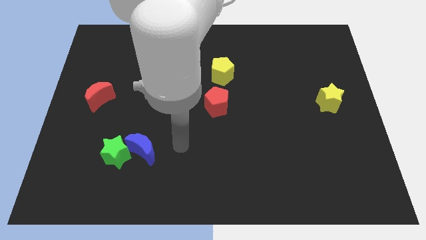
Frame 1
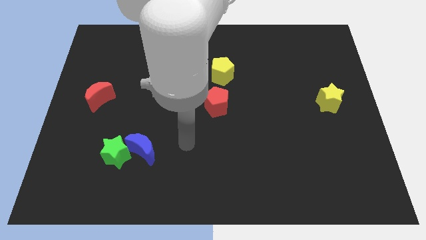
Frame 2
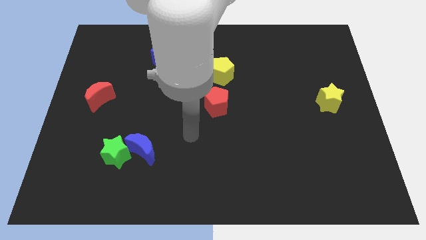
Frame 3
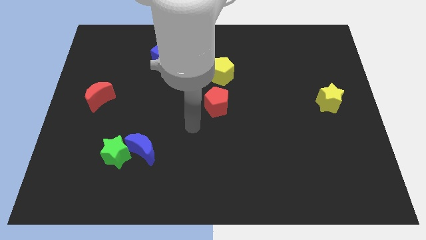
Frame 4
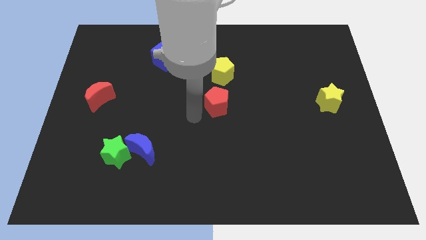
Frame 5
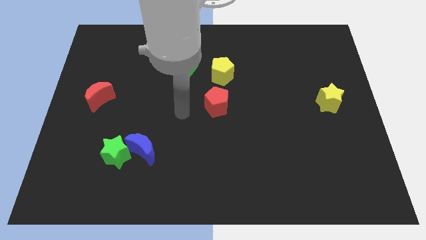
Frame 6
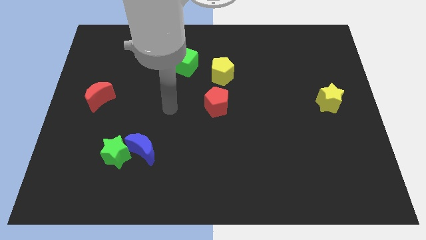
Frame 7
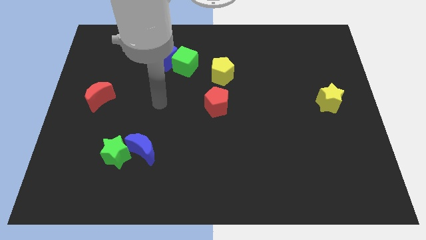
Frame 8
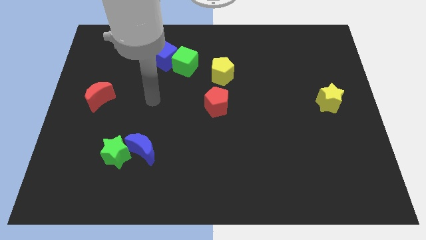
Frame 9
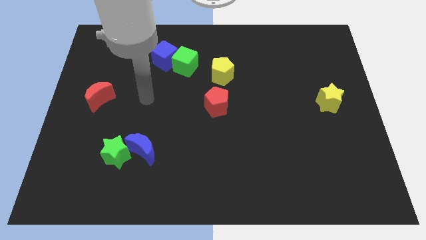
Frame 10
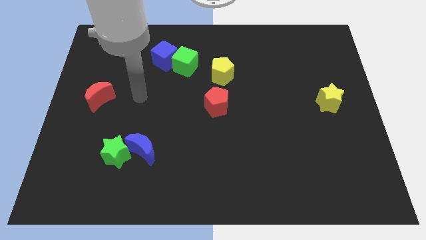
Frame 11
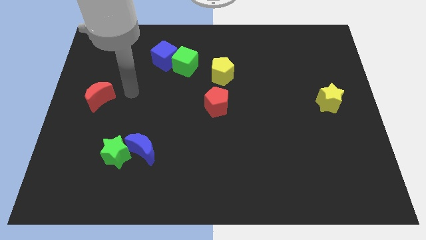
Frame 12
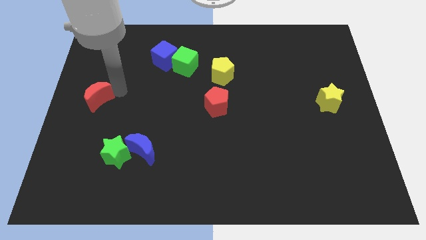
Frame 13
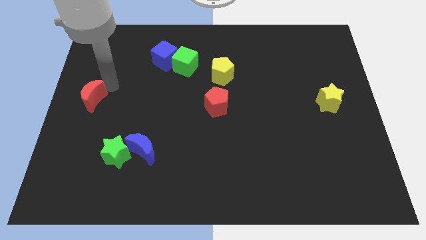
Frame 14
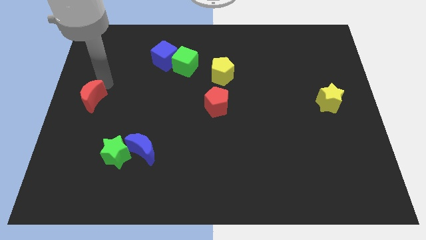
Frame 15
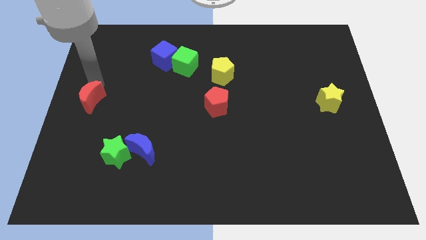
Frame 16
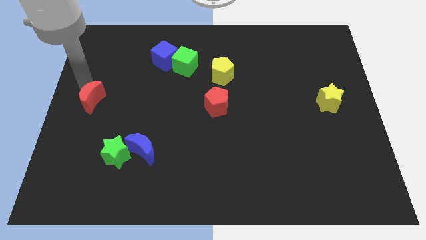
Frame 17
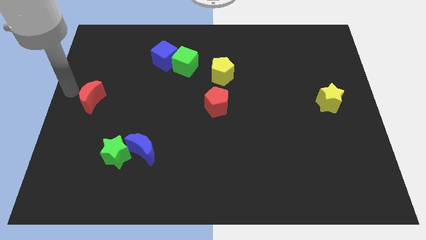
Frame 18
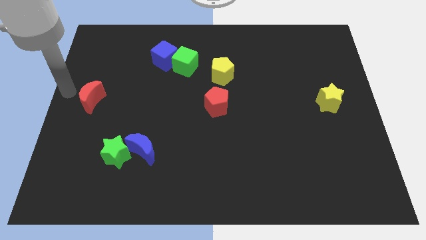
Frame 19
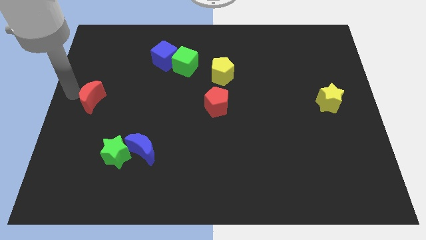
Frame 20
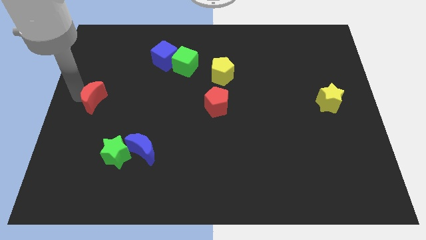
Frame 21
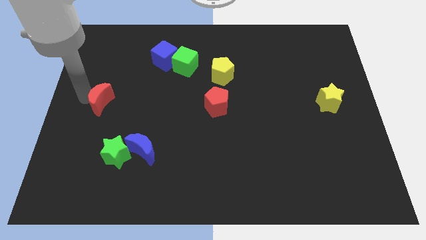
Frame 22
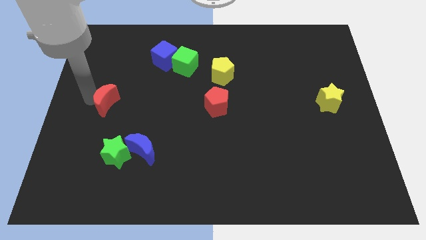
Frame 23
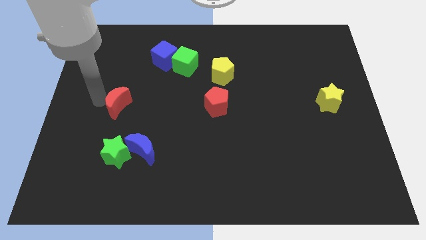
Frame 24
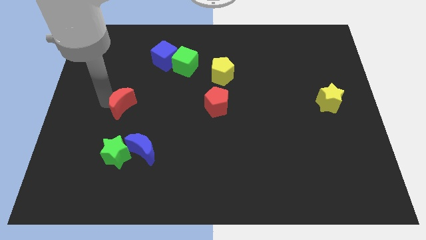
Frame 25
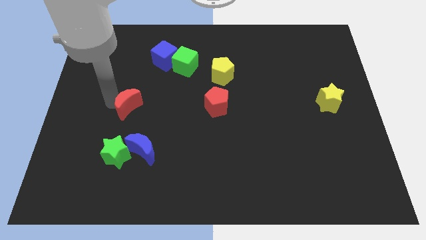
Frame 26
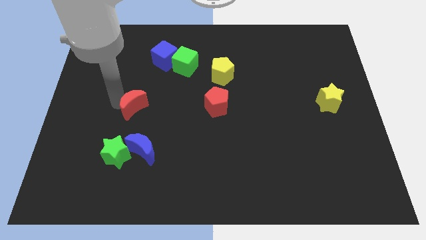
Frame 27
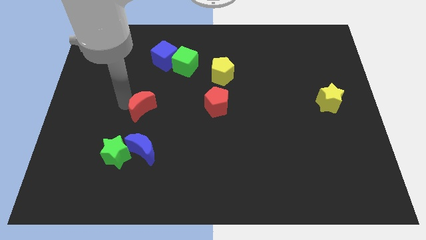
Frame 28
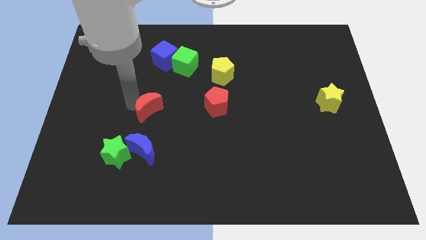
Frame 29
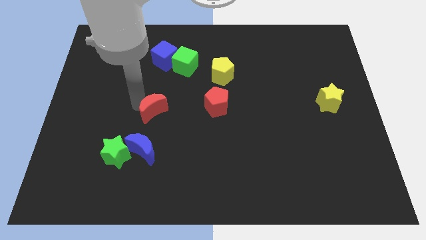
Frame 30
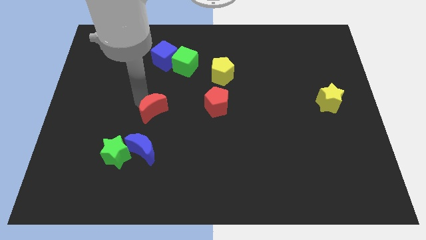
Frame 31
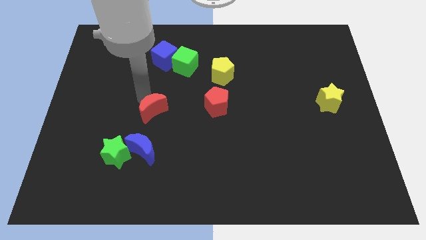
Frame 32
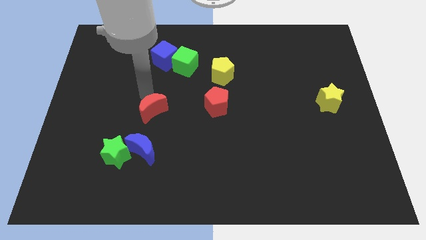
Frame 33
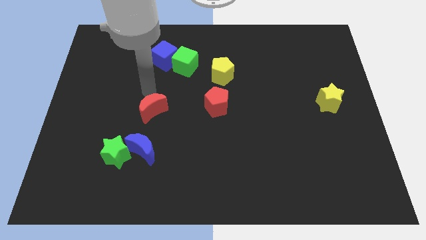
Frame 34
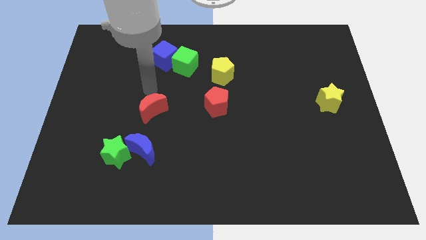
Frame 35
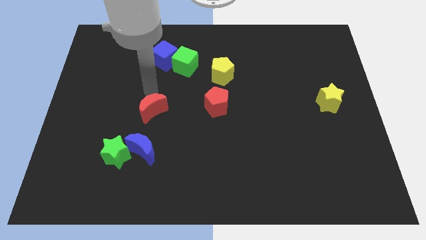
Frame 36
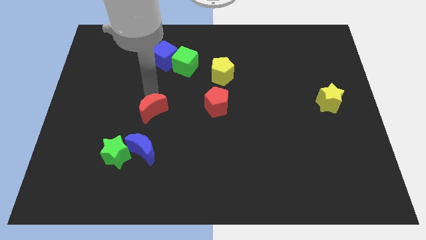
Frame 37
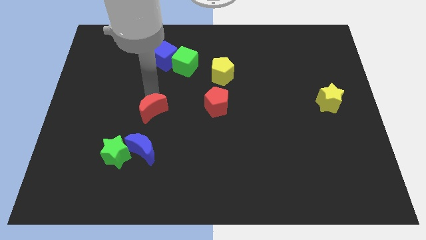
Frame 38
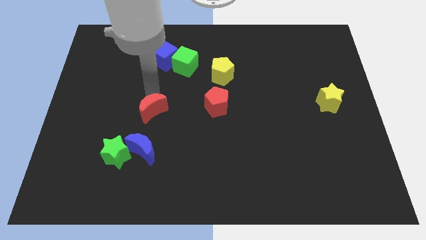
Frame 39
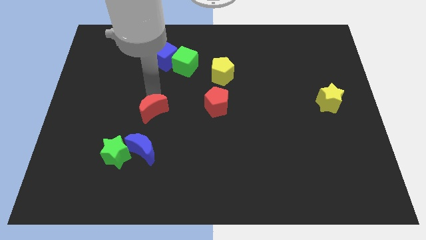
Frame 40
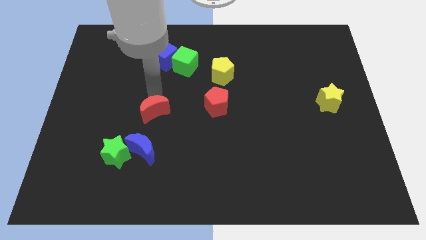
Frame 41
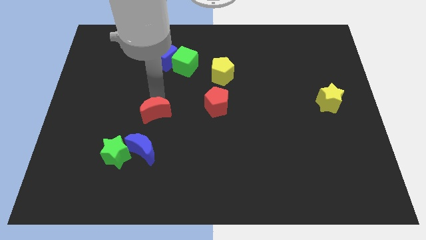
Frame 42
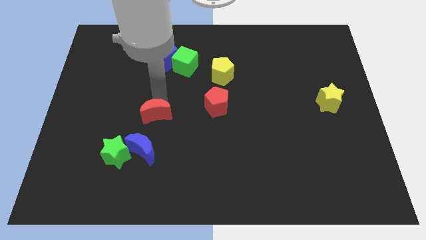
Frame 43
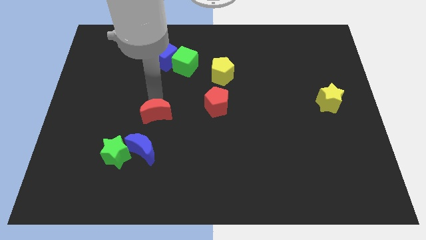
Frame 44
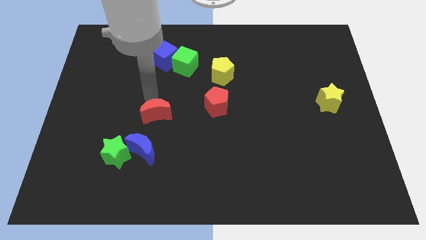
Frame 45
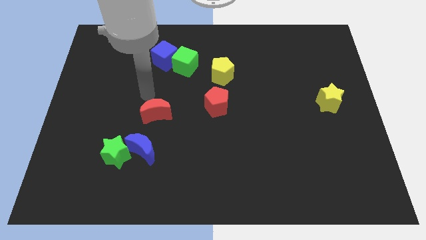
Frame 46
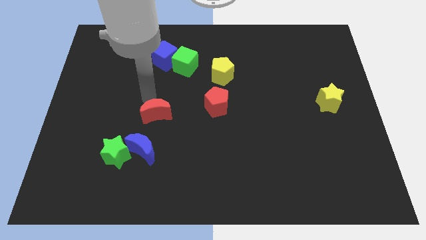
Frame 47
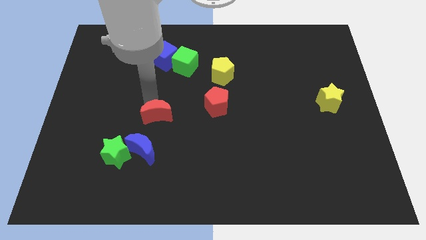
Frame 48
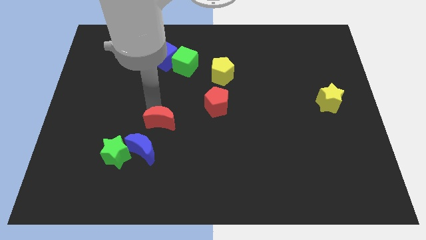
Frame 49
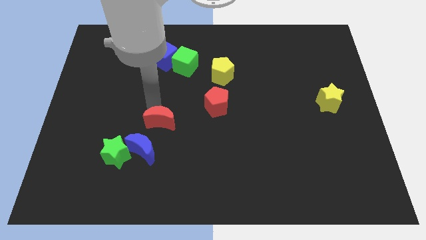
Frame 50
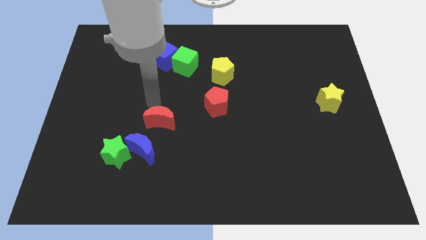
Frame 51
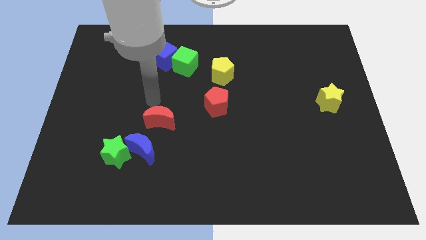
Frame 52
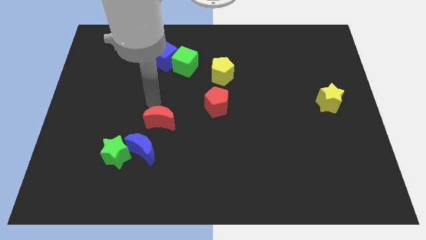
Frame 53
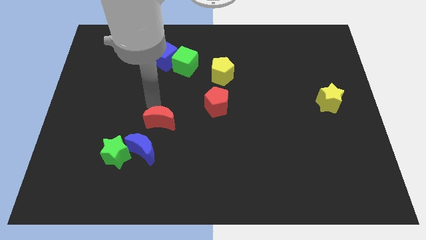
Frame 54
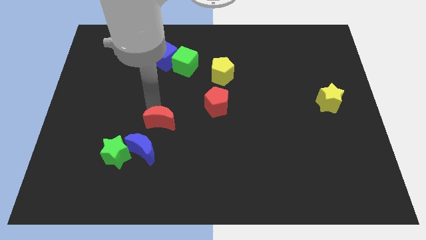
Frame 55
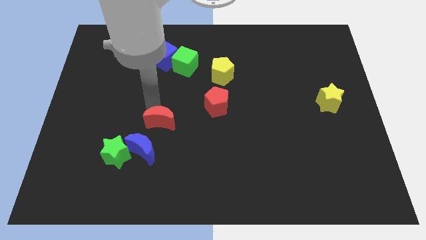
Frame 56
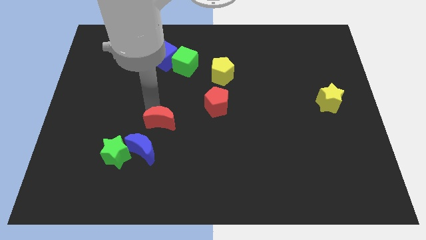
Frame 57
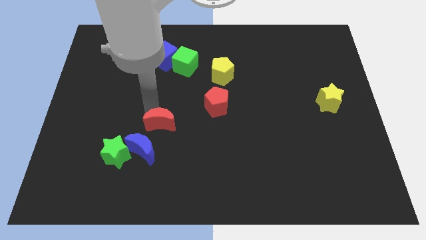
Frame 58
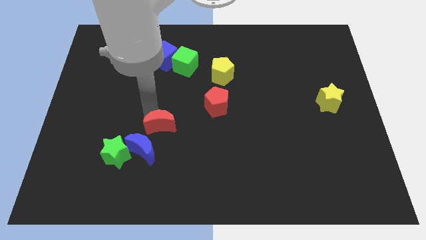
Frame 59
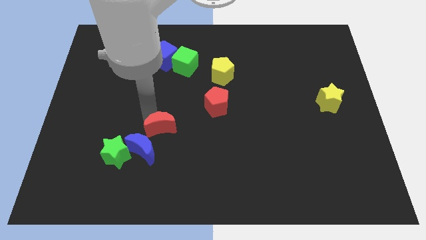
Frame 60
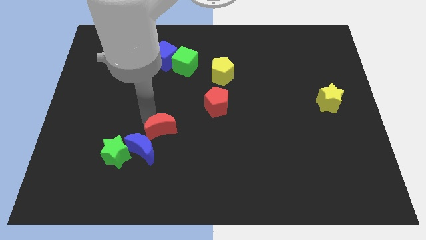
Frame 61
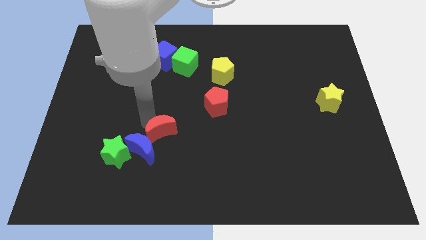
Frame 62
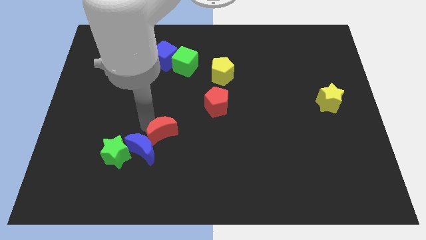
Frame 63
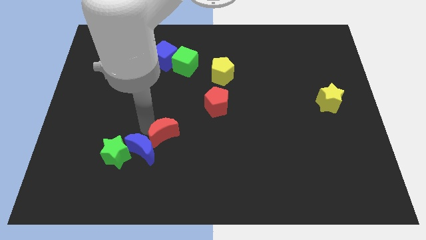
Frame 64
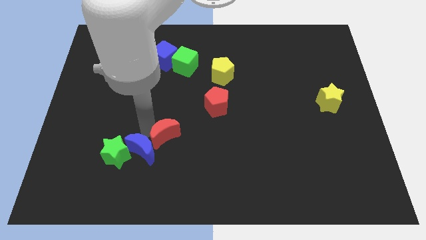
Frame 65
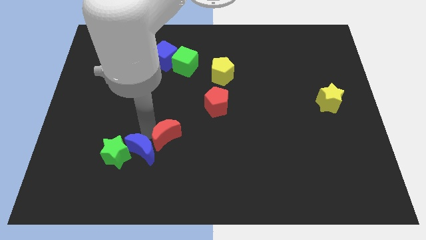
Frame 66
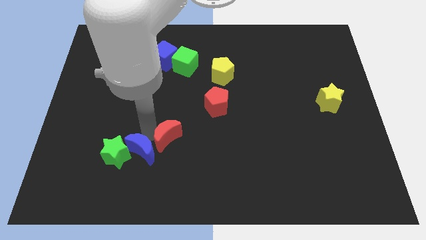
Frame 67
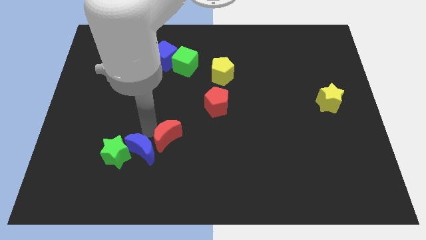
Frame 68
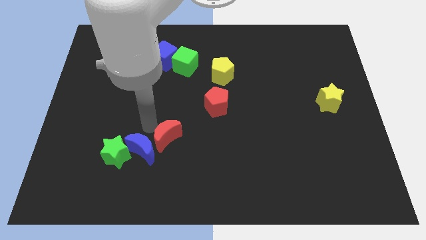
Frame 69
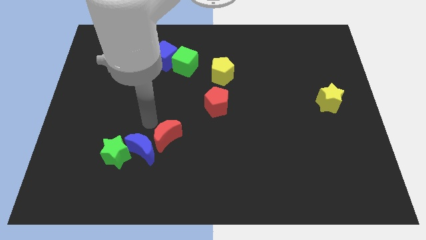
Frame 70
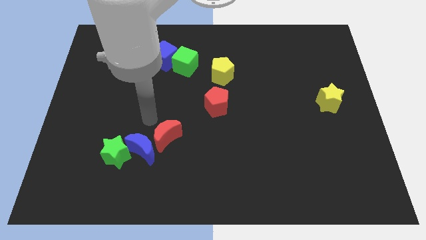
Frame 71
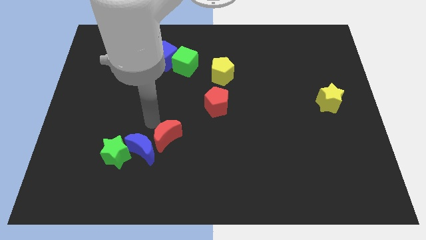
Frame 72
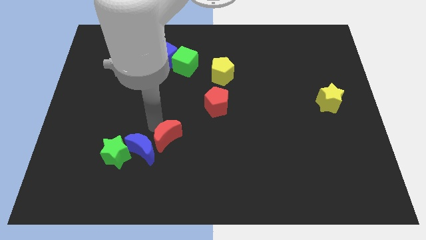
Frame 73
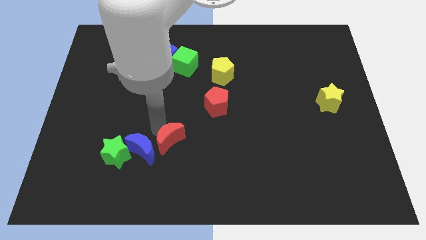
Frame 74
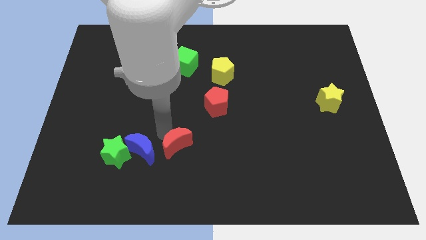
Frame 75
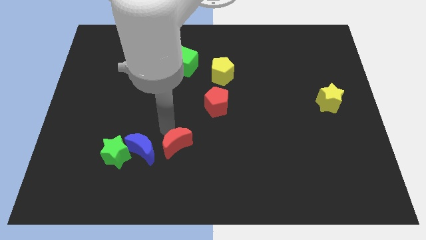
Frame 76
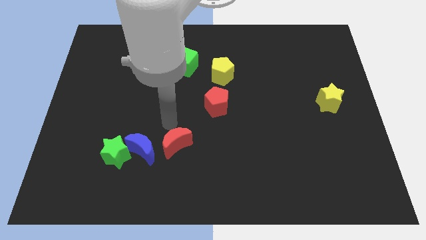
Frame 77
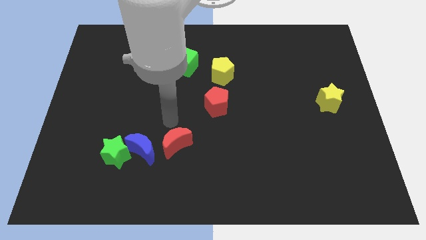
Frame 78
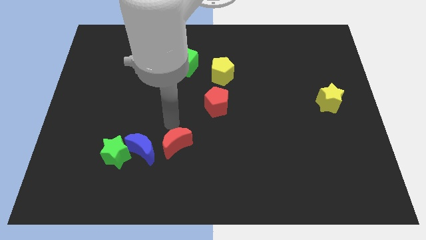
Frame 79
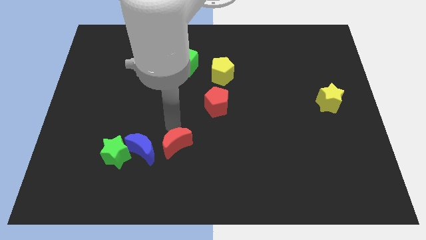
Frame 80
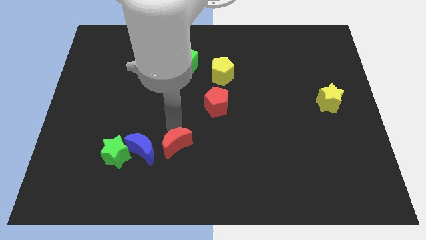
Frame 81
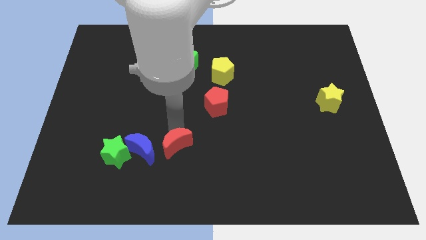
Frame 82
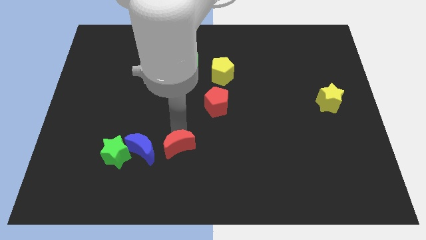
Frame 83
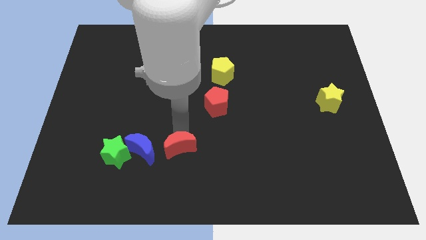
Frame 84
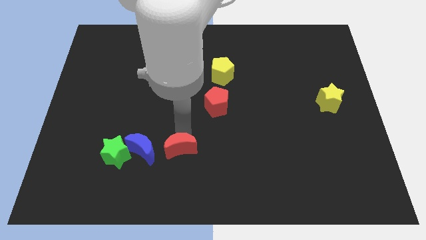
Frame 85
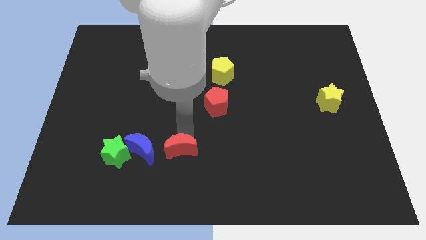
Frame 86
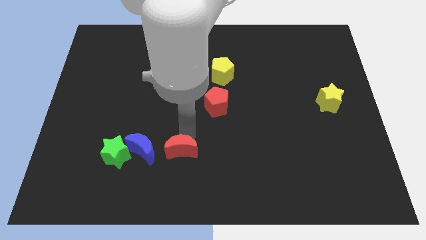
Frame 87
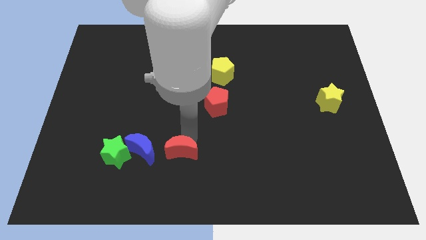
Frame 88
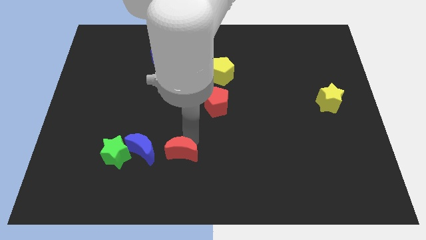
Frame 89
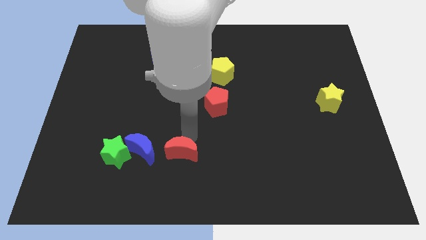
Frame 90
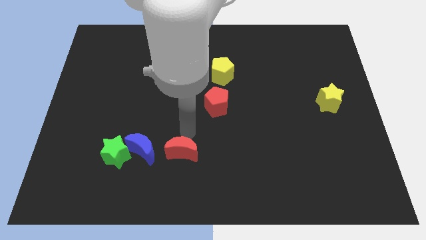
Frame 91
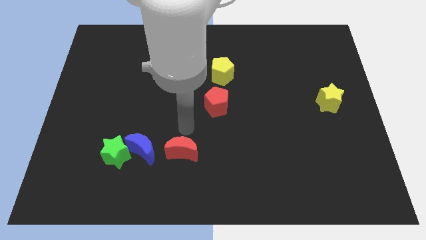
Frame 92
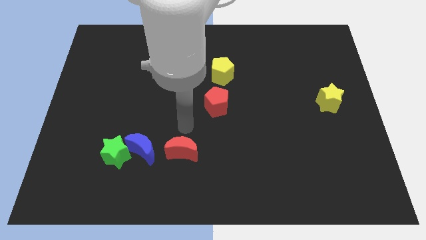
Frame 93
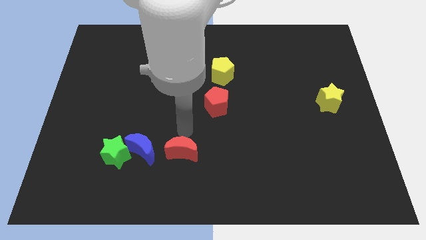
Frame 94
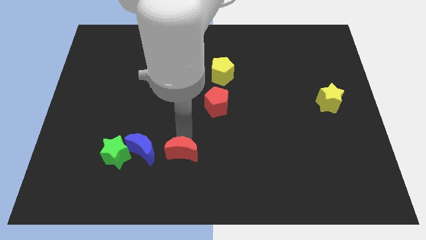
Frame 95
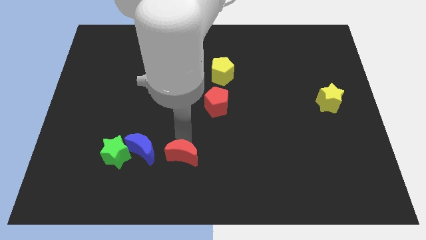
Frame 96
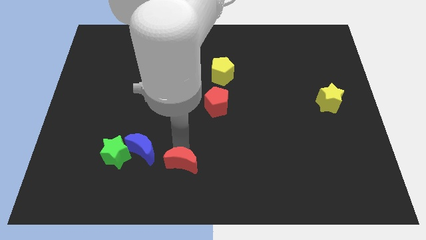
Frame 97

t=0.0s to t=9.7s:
slide the red moon to the bottom
